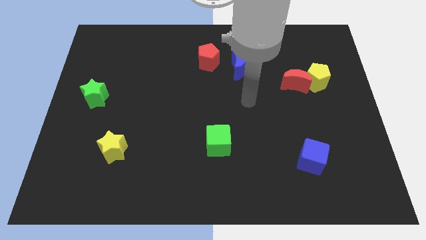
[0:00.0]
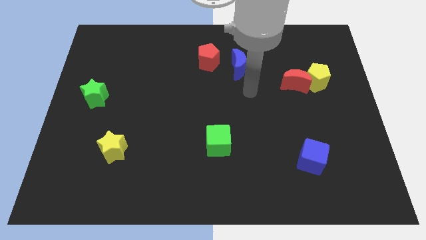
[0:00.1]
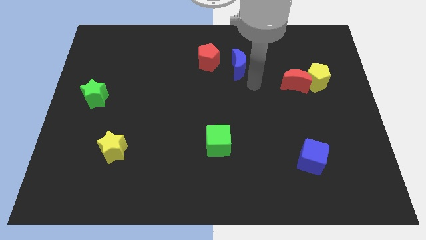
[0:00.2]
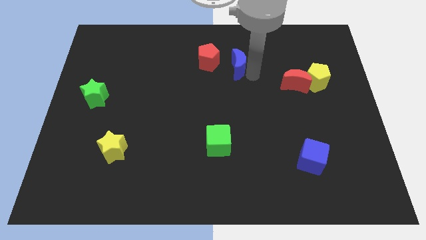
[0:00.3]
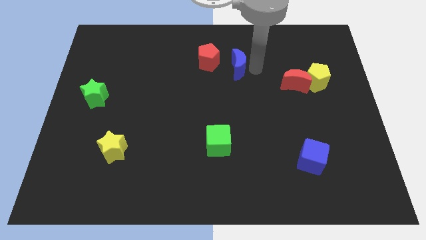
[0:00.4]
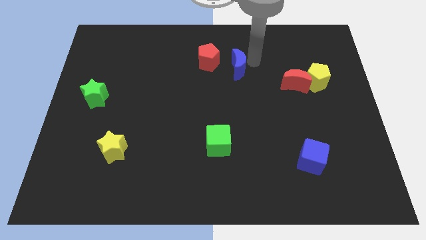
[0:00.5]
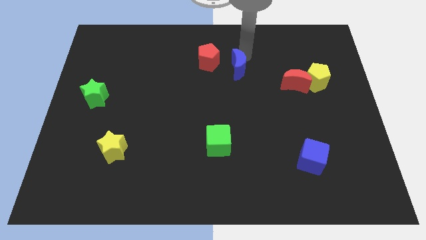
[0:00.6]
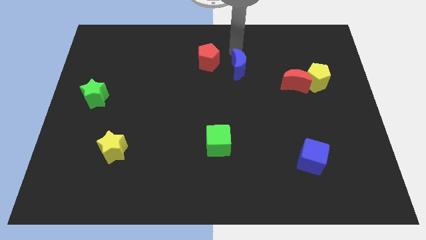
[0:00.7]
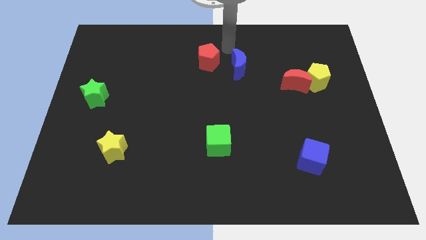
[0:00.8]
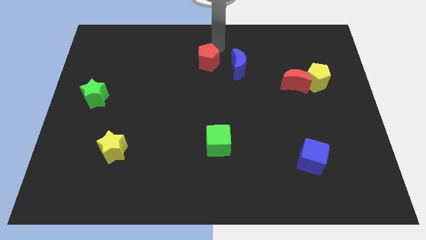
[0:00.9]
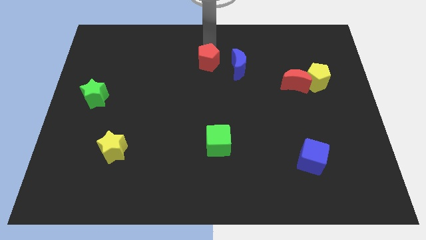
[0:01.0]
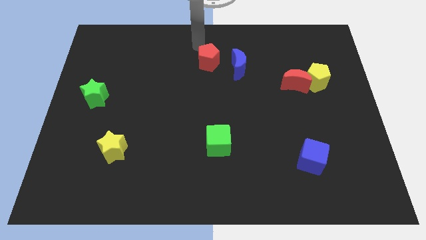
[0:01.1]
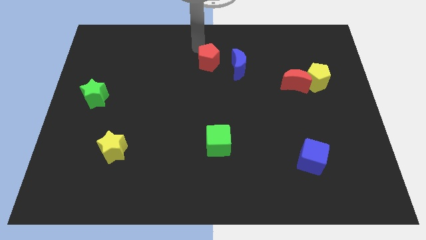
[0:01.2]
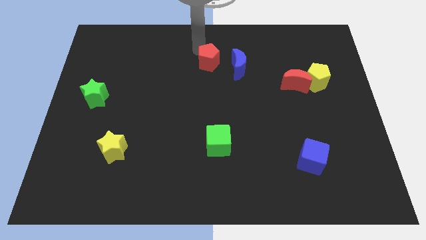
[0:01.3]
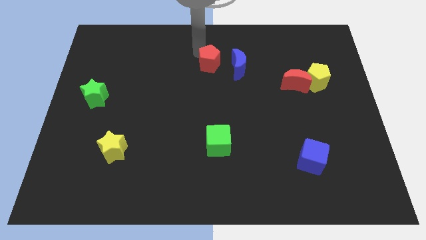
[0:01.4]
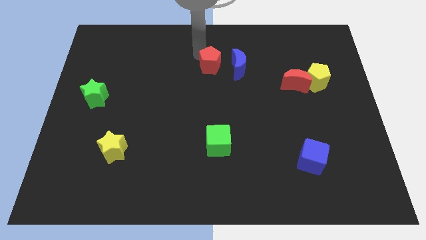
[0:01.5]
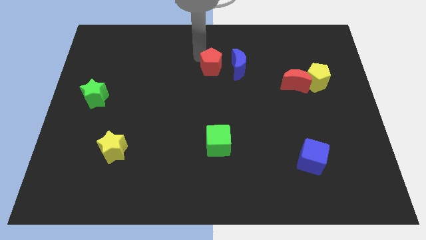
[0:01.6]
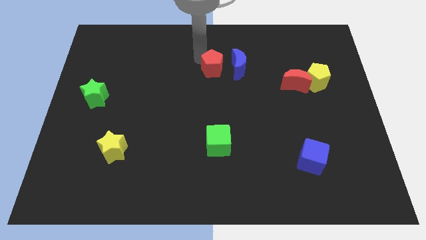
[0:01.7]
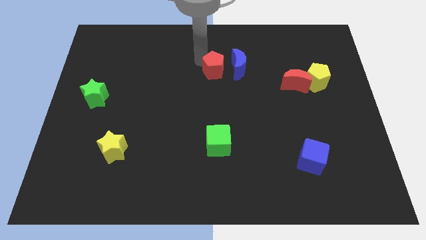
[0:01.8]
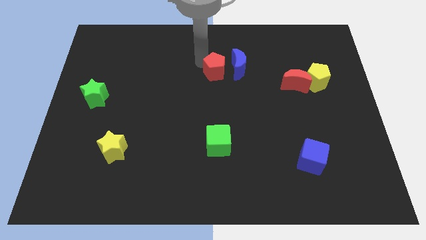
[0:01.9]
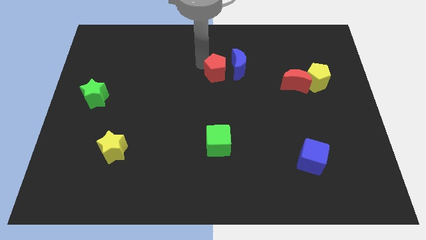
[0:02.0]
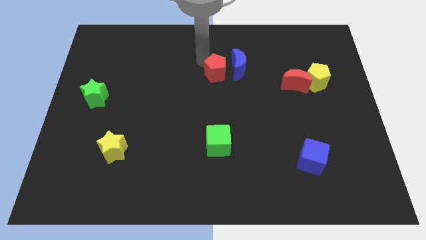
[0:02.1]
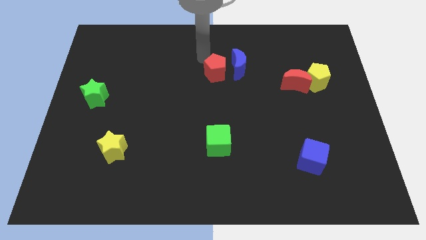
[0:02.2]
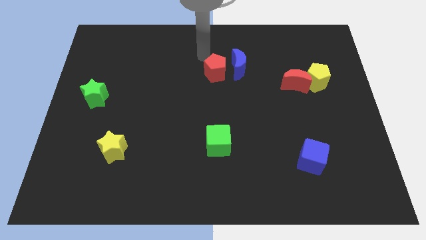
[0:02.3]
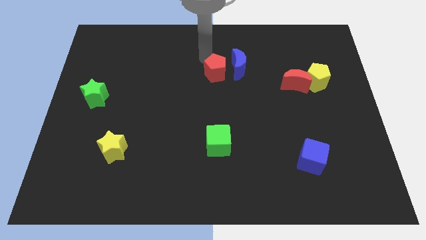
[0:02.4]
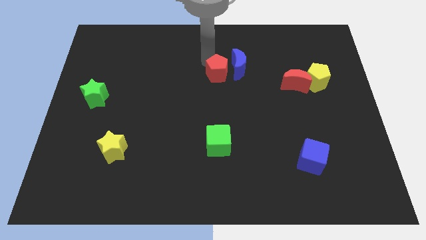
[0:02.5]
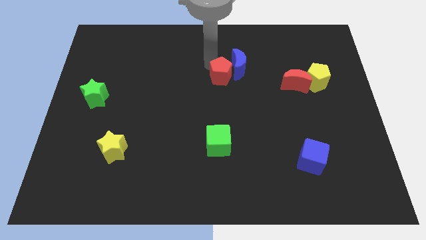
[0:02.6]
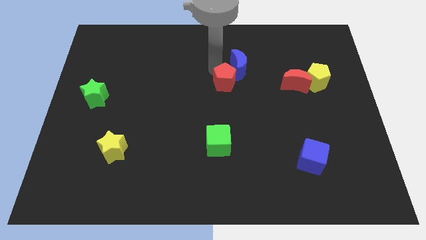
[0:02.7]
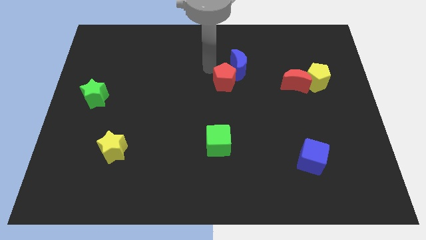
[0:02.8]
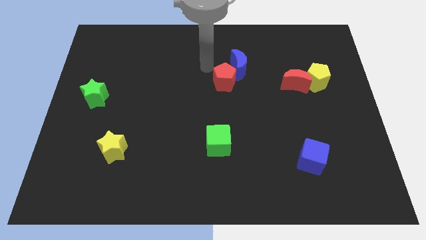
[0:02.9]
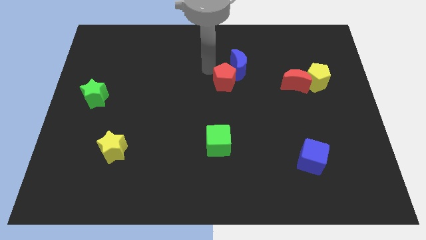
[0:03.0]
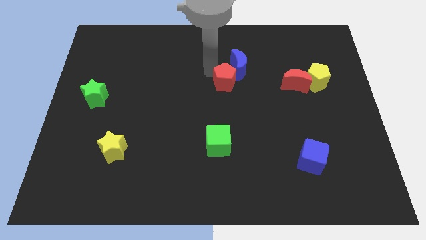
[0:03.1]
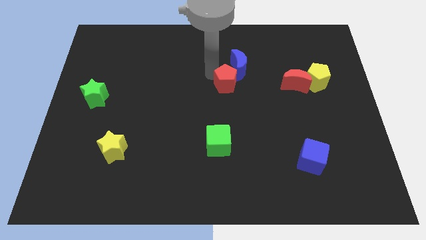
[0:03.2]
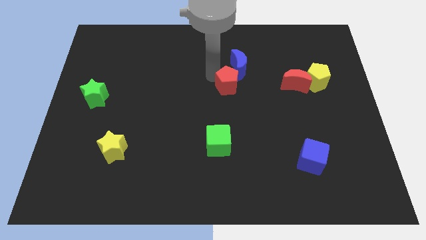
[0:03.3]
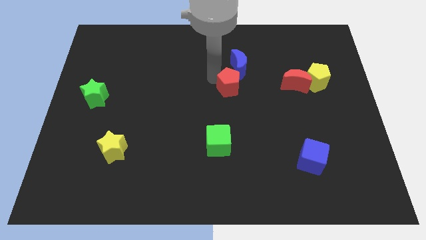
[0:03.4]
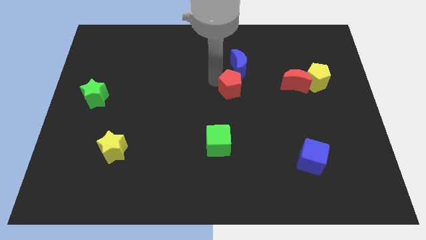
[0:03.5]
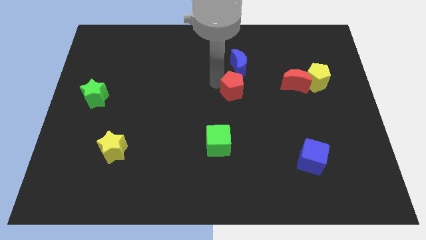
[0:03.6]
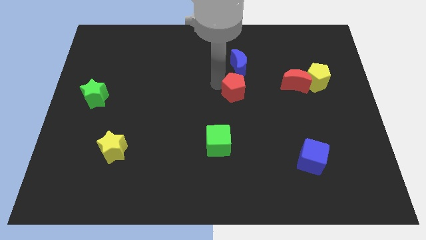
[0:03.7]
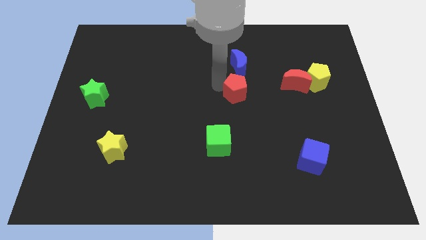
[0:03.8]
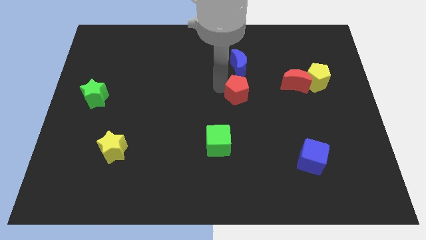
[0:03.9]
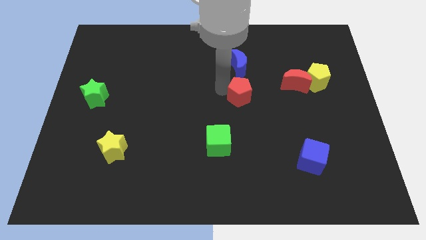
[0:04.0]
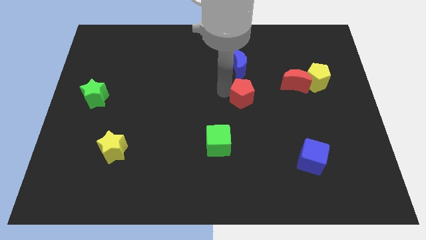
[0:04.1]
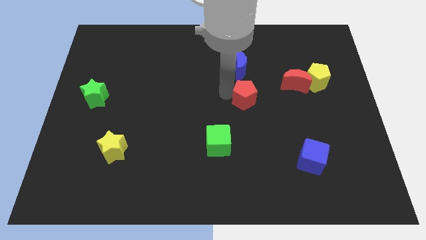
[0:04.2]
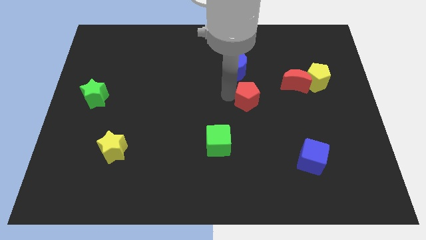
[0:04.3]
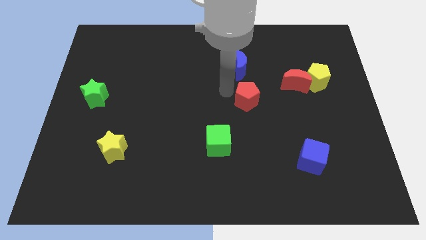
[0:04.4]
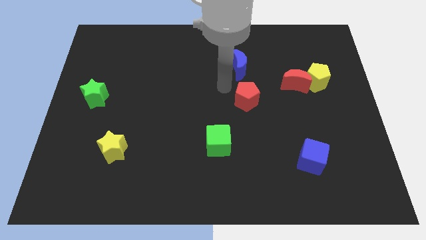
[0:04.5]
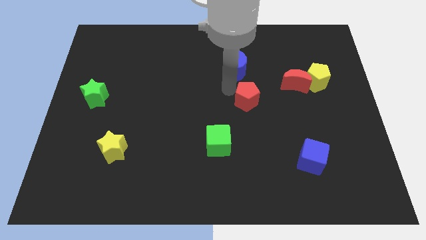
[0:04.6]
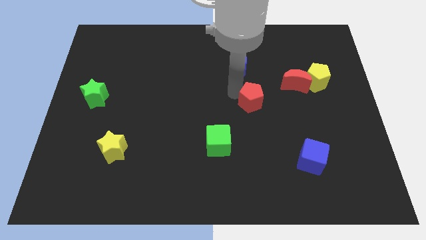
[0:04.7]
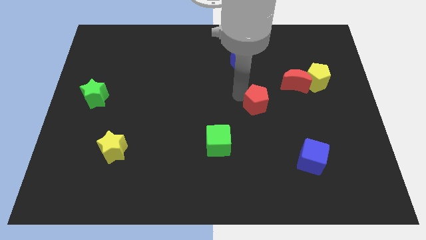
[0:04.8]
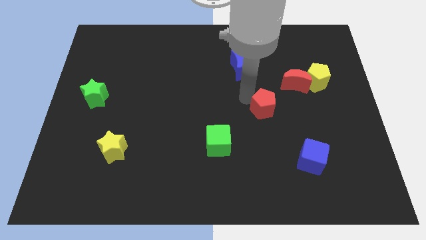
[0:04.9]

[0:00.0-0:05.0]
move the red pentagon downwards and then to the right

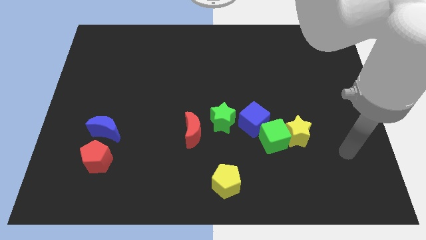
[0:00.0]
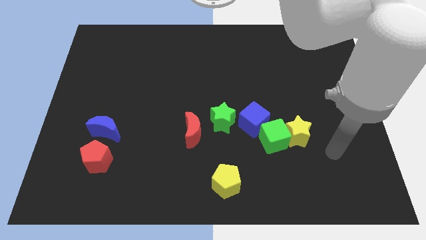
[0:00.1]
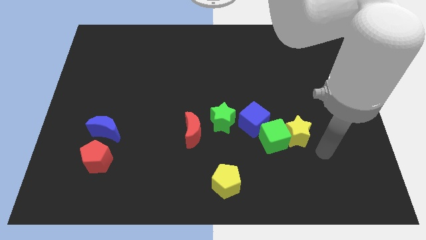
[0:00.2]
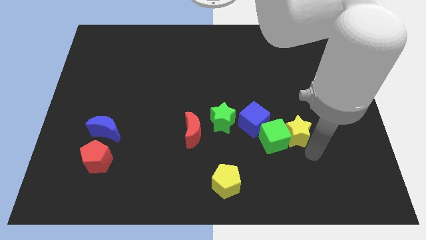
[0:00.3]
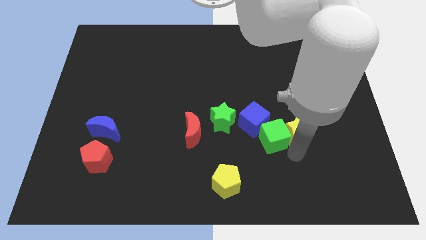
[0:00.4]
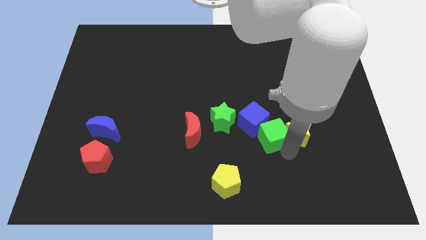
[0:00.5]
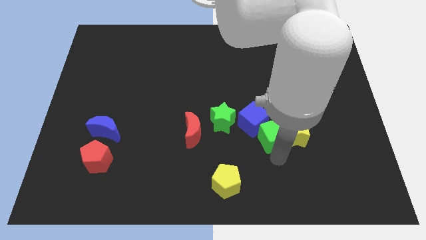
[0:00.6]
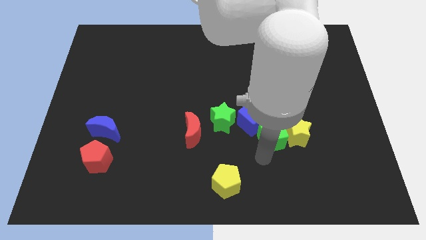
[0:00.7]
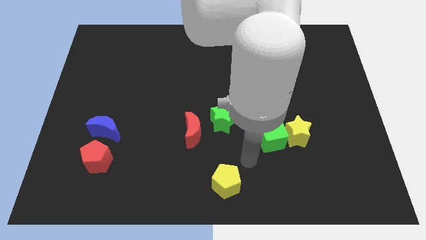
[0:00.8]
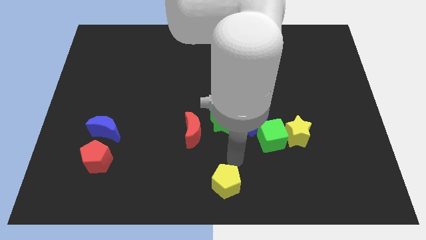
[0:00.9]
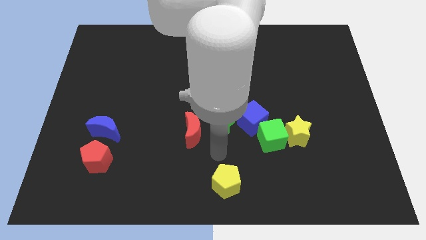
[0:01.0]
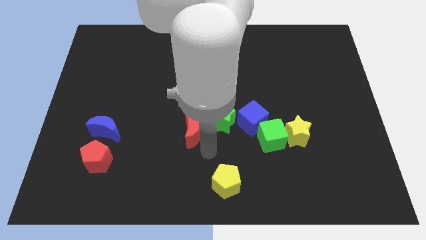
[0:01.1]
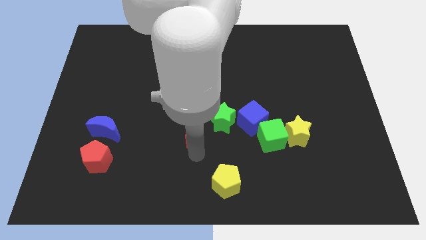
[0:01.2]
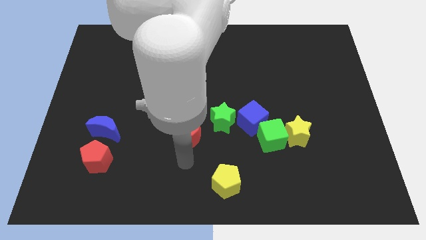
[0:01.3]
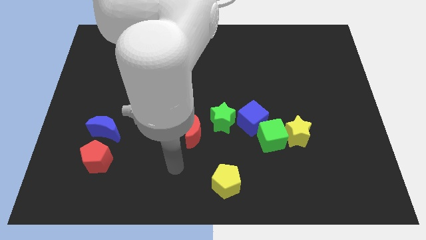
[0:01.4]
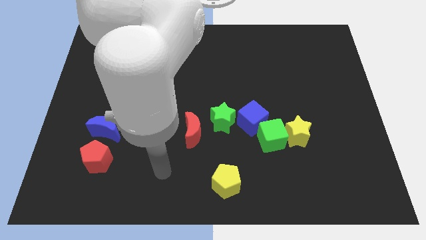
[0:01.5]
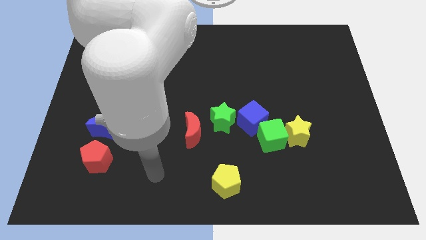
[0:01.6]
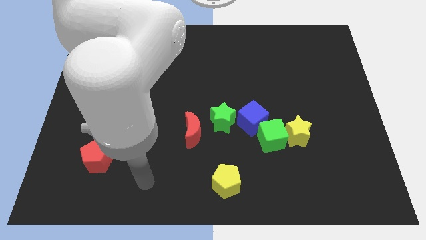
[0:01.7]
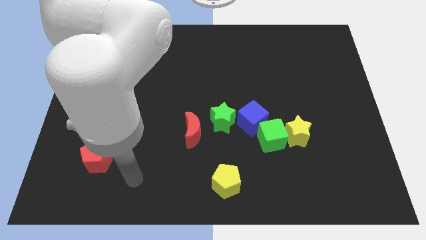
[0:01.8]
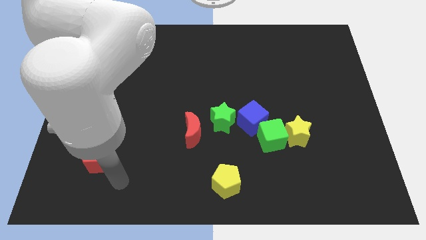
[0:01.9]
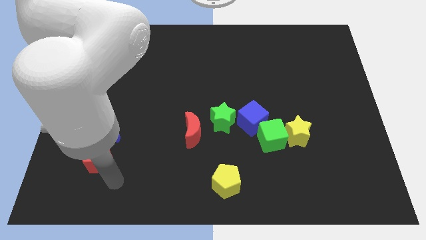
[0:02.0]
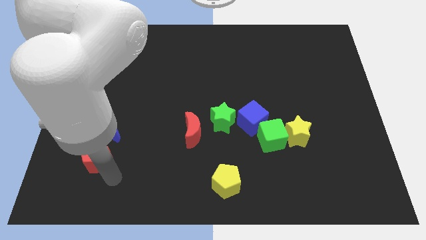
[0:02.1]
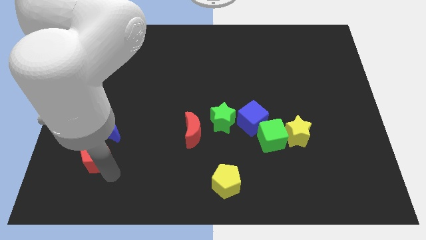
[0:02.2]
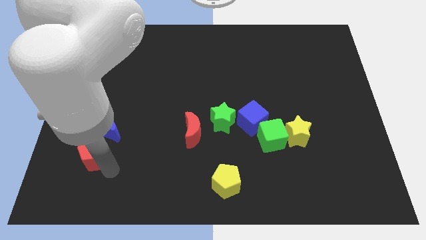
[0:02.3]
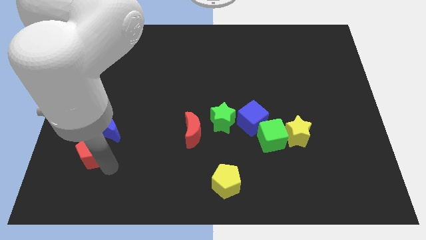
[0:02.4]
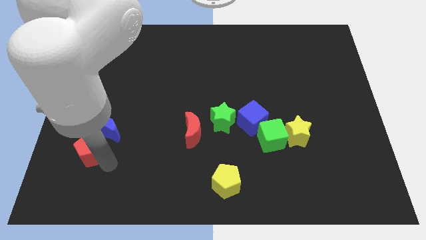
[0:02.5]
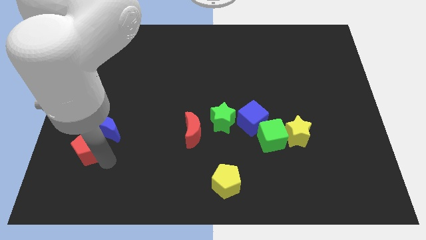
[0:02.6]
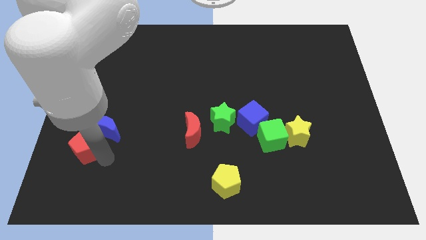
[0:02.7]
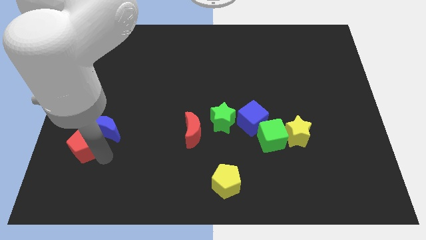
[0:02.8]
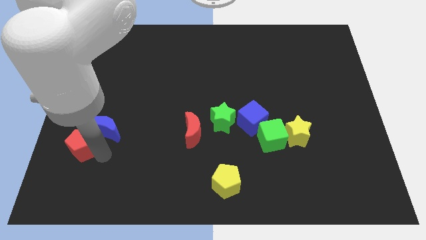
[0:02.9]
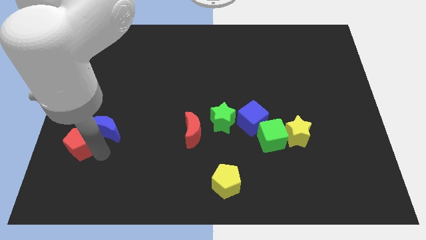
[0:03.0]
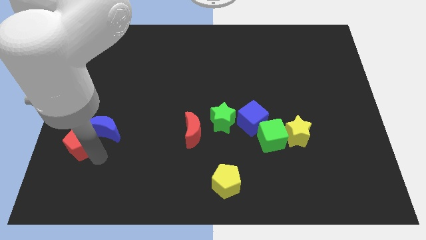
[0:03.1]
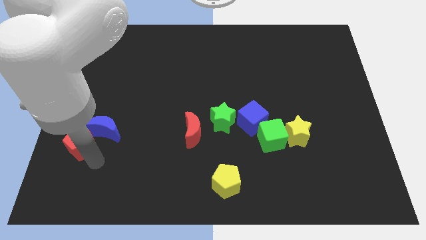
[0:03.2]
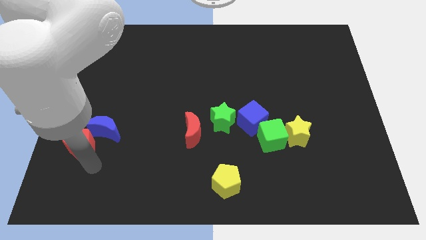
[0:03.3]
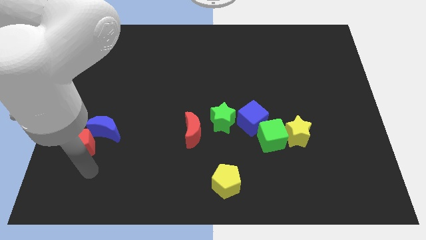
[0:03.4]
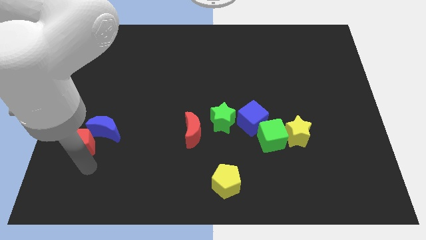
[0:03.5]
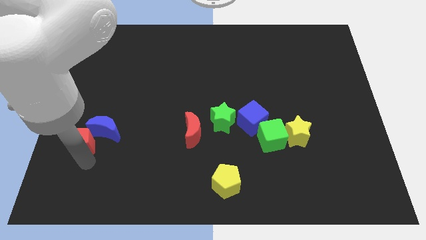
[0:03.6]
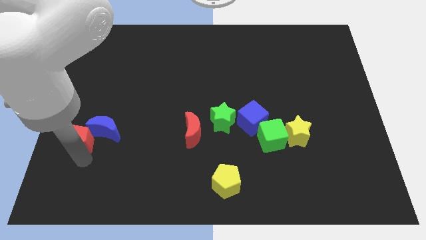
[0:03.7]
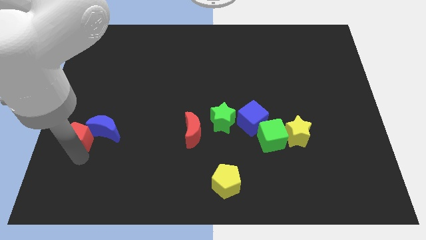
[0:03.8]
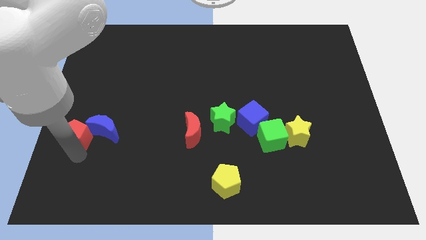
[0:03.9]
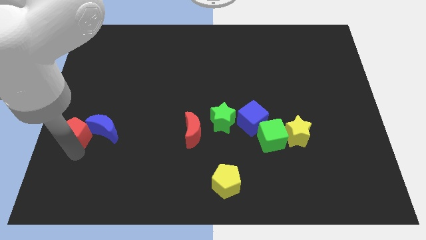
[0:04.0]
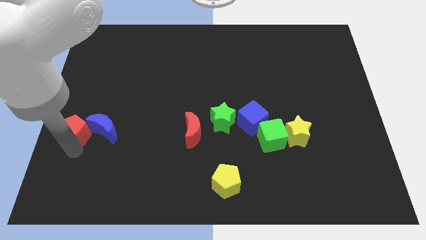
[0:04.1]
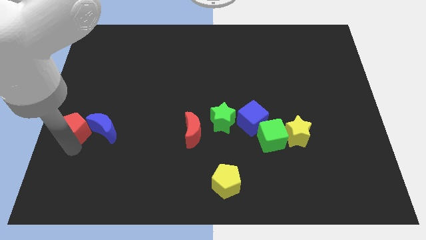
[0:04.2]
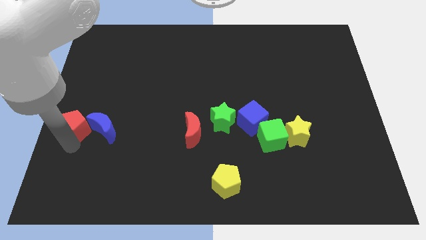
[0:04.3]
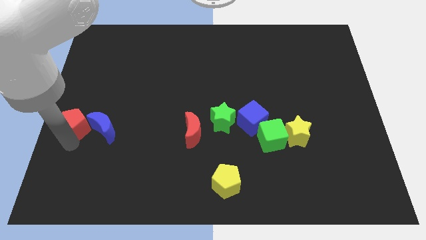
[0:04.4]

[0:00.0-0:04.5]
move the red pentagon upwards a little bit
